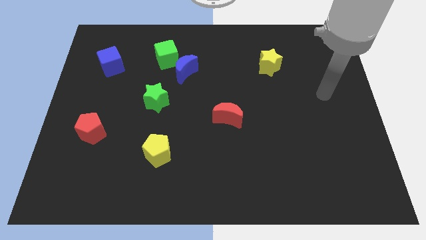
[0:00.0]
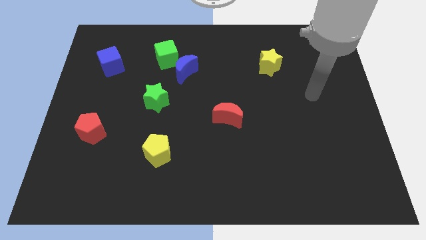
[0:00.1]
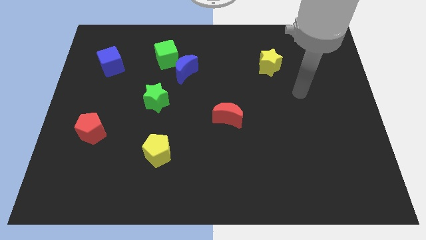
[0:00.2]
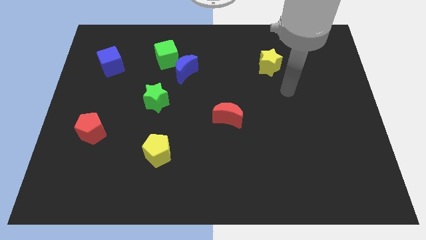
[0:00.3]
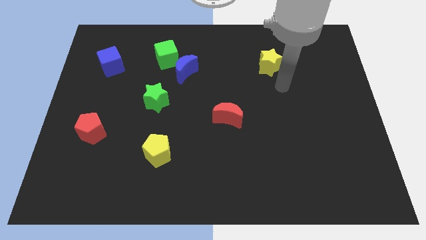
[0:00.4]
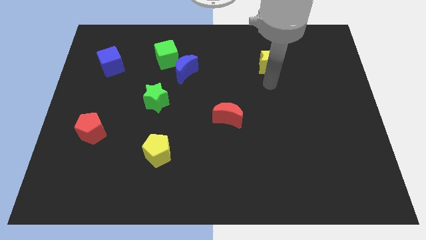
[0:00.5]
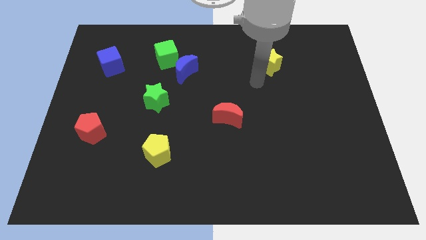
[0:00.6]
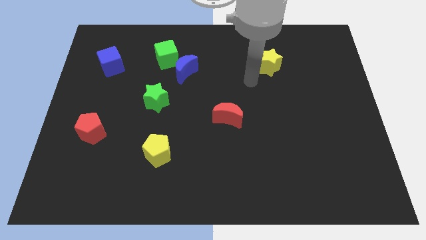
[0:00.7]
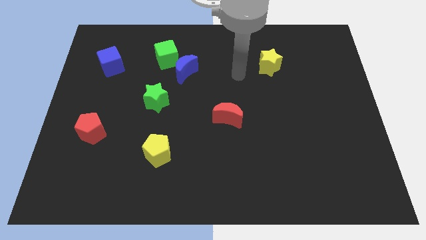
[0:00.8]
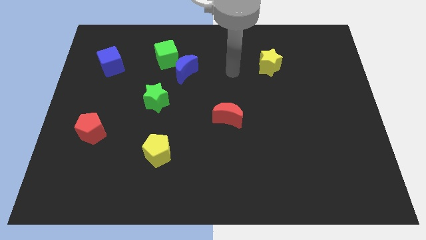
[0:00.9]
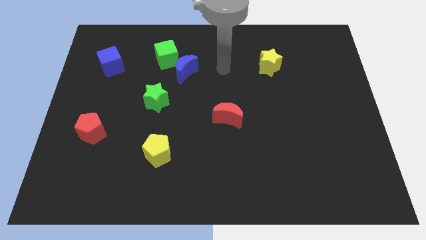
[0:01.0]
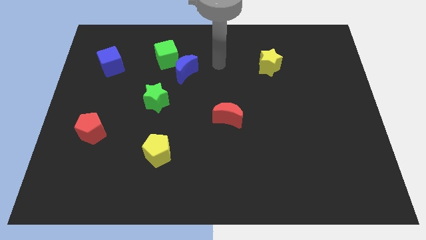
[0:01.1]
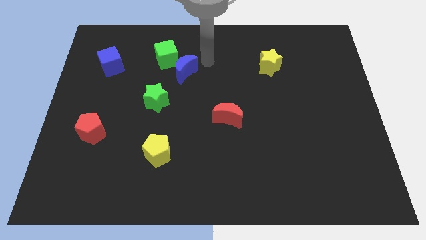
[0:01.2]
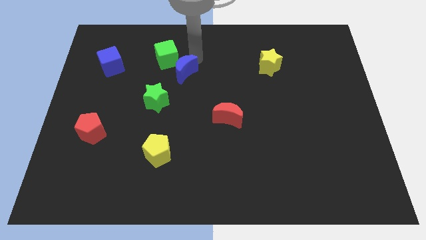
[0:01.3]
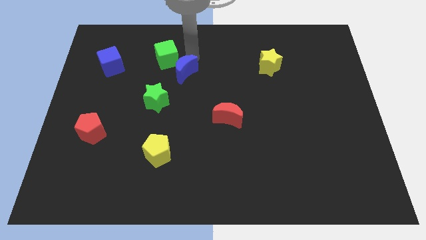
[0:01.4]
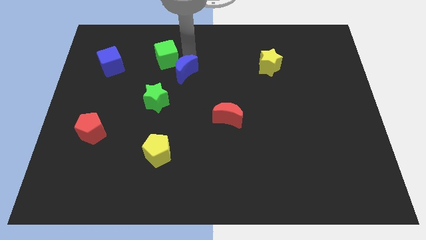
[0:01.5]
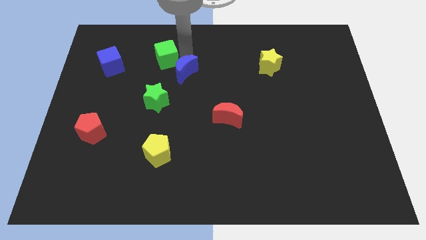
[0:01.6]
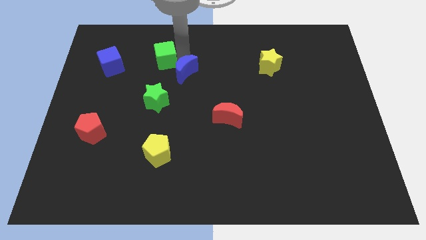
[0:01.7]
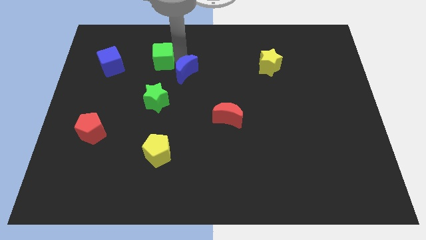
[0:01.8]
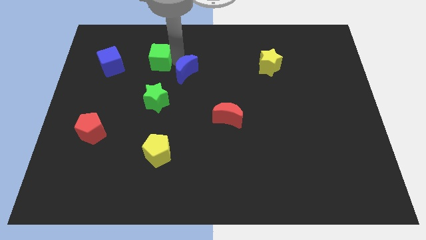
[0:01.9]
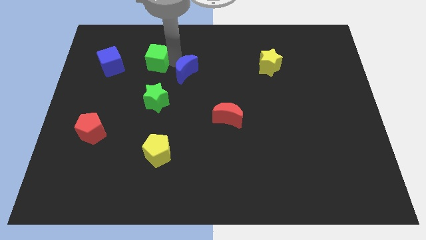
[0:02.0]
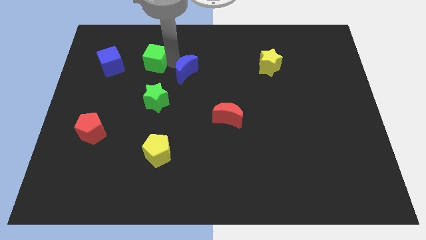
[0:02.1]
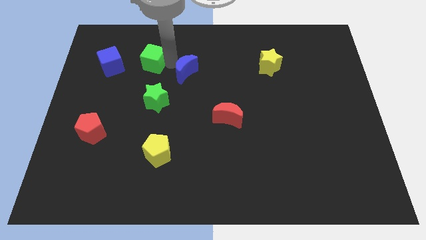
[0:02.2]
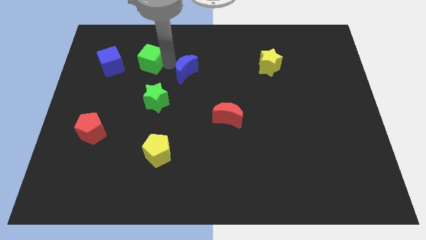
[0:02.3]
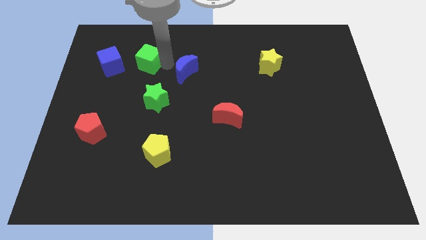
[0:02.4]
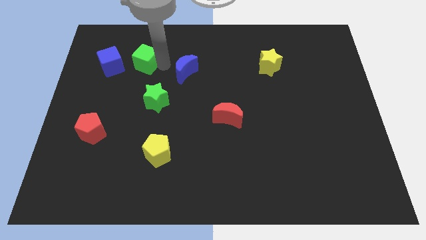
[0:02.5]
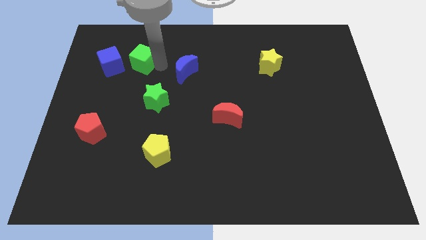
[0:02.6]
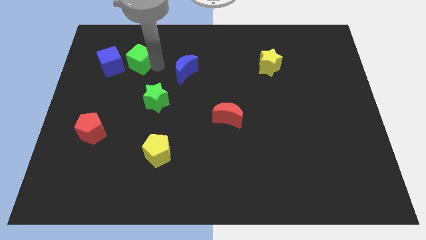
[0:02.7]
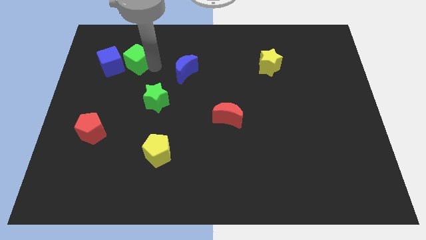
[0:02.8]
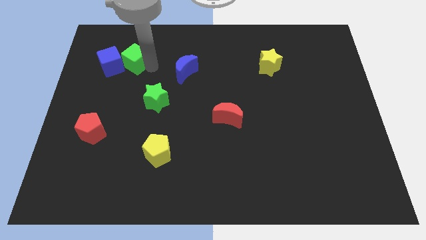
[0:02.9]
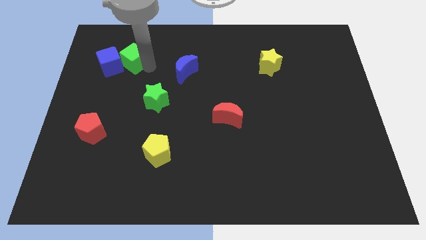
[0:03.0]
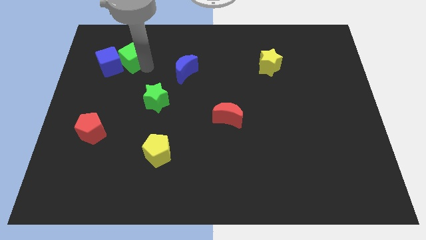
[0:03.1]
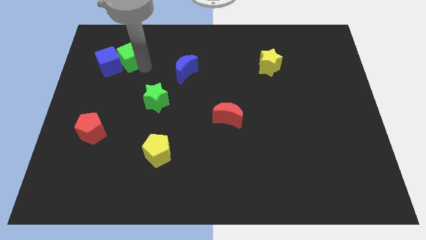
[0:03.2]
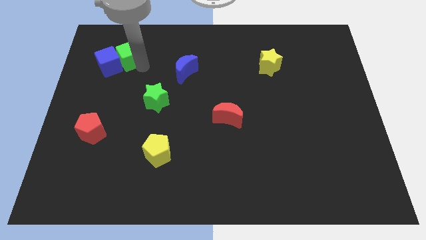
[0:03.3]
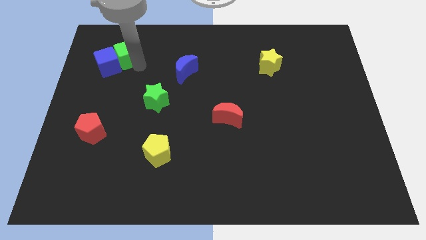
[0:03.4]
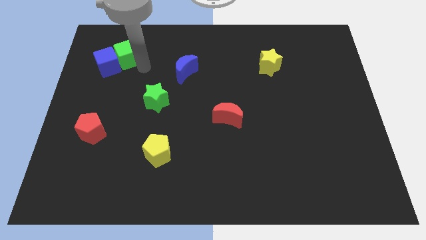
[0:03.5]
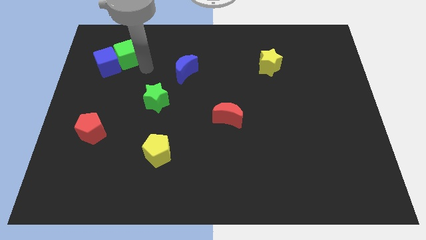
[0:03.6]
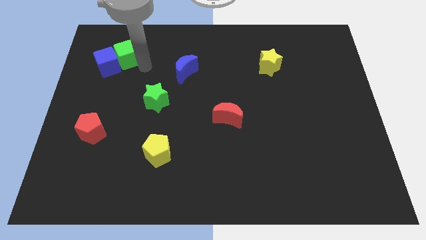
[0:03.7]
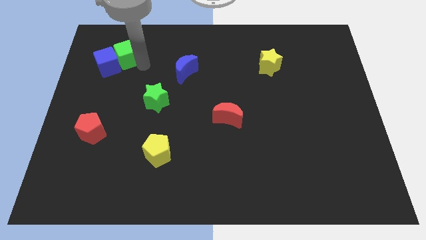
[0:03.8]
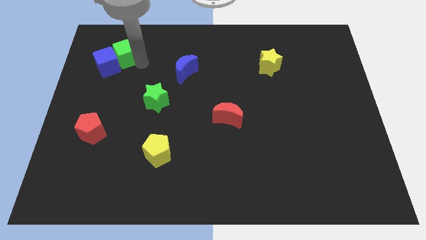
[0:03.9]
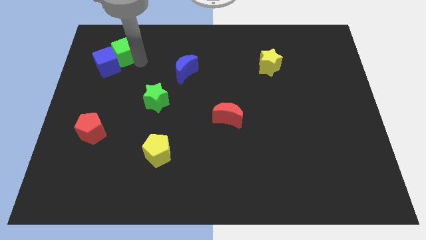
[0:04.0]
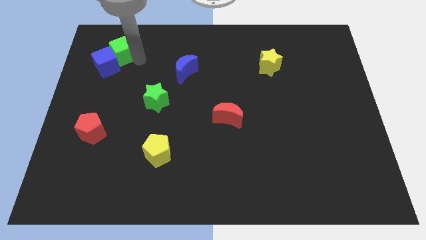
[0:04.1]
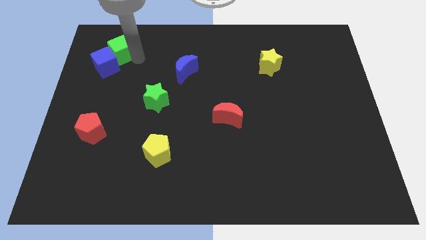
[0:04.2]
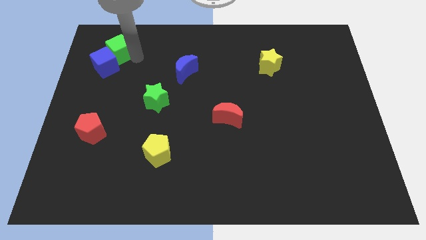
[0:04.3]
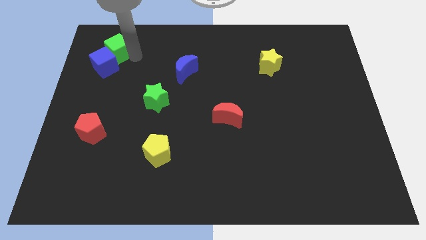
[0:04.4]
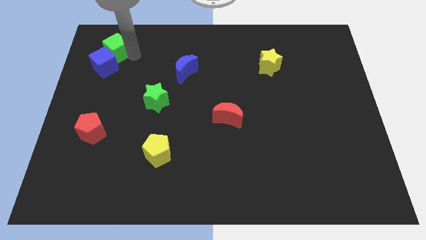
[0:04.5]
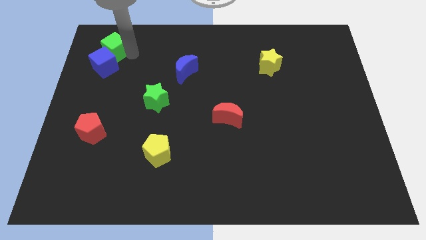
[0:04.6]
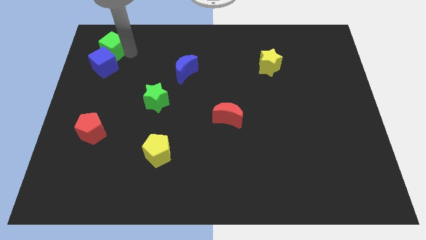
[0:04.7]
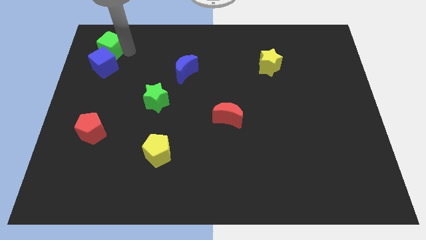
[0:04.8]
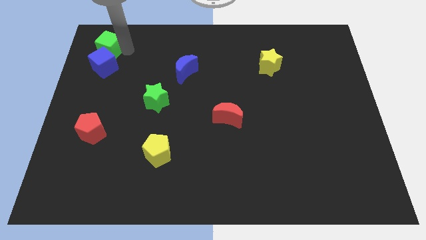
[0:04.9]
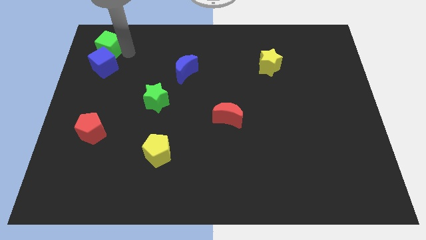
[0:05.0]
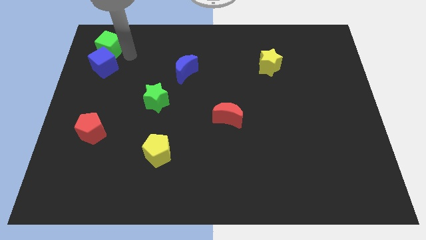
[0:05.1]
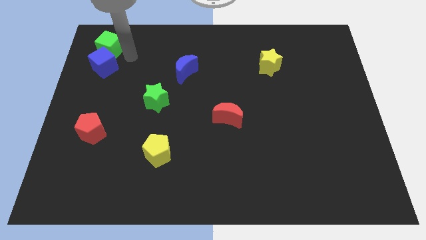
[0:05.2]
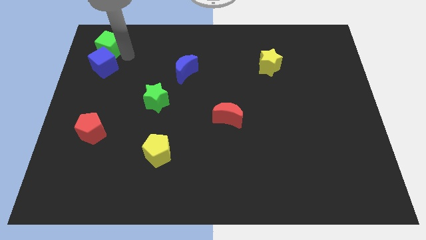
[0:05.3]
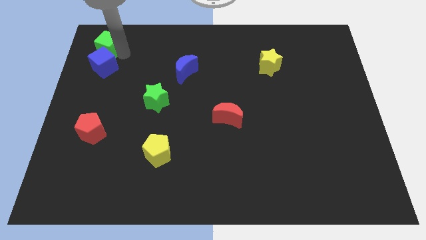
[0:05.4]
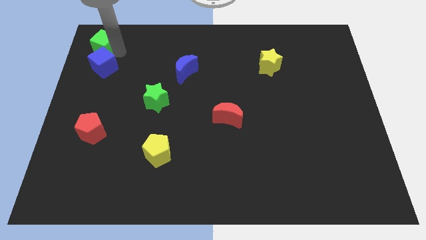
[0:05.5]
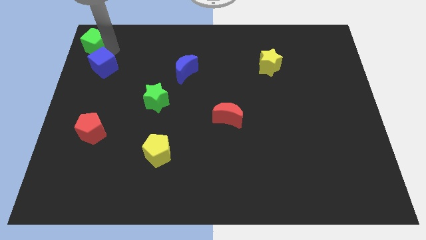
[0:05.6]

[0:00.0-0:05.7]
slide the green cube to the upper left corner

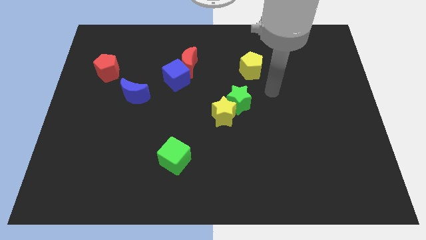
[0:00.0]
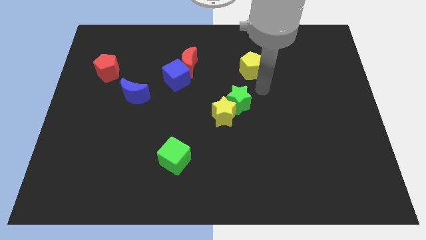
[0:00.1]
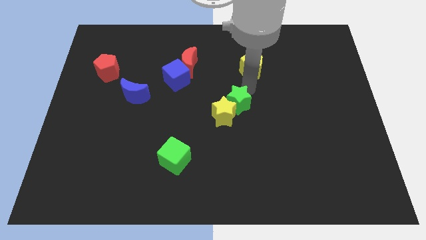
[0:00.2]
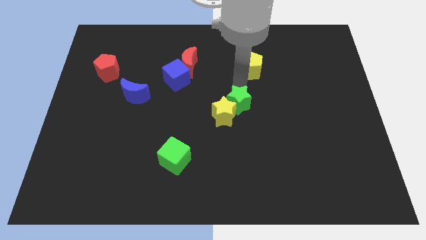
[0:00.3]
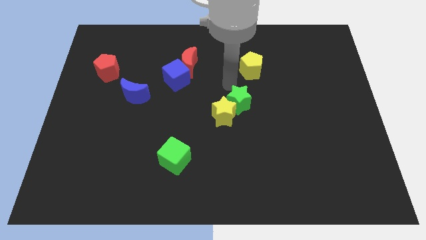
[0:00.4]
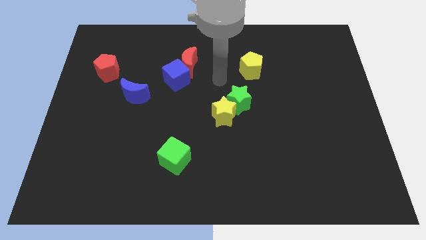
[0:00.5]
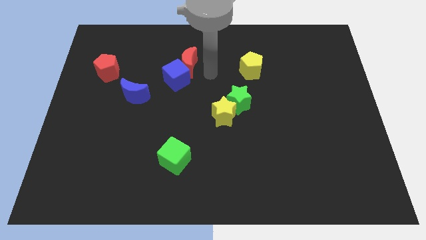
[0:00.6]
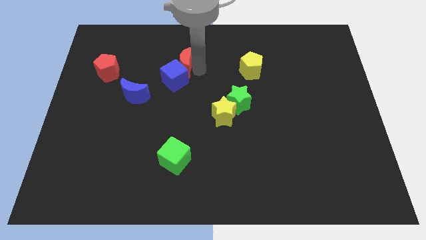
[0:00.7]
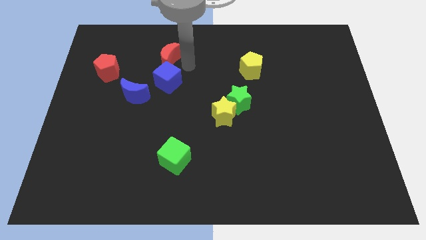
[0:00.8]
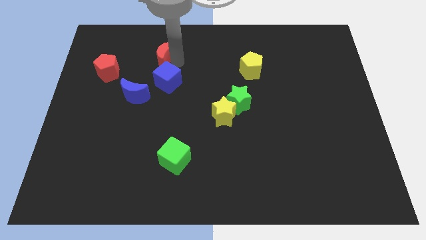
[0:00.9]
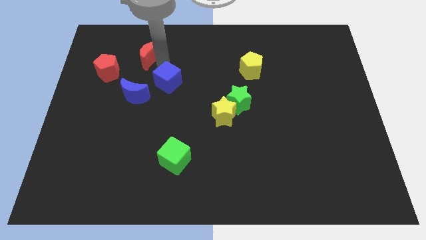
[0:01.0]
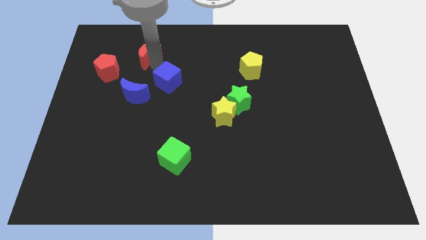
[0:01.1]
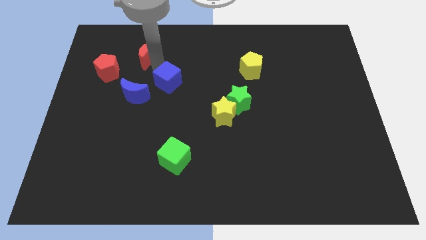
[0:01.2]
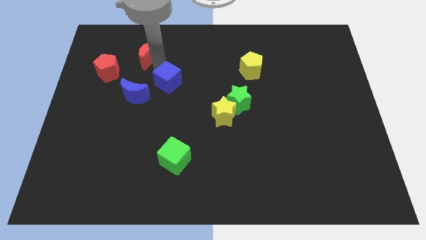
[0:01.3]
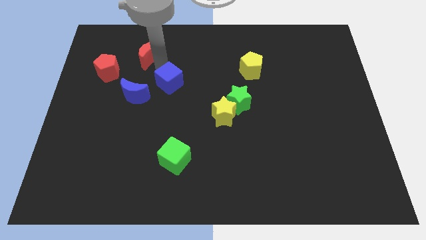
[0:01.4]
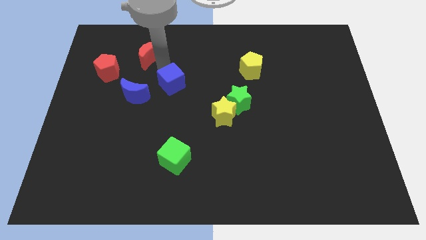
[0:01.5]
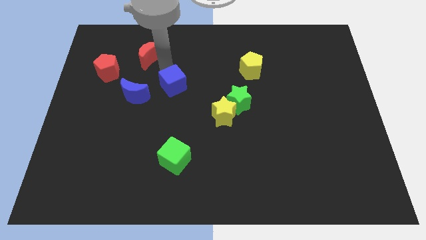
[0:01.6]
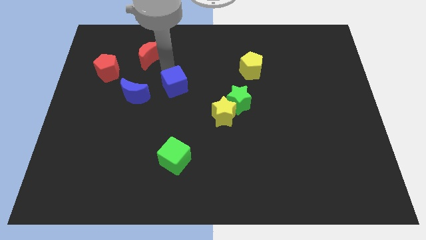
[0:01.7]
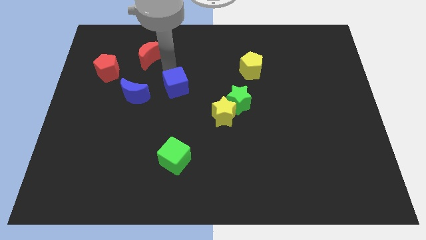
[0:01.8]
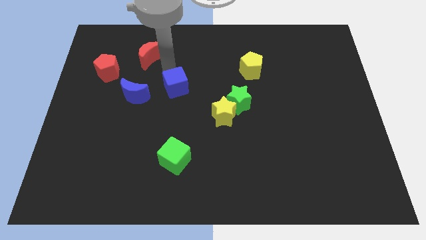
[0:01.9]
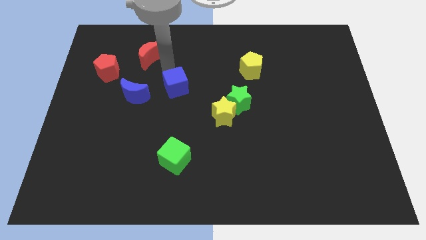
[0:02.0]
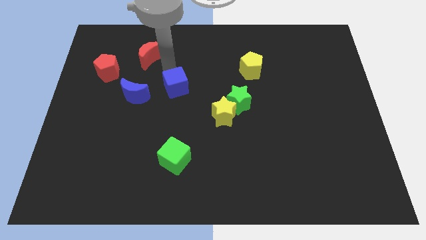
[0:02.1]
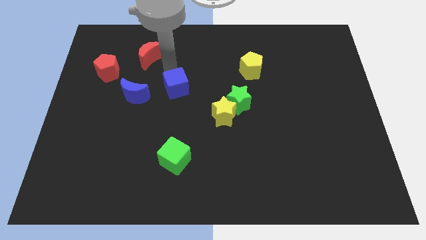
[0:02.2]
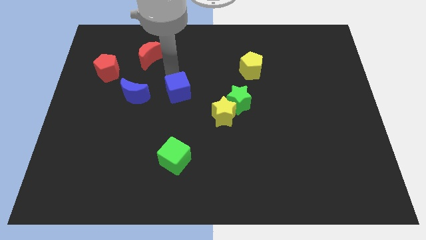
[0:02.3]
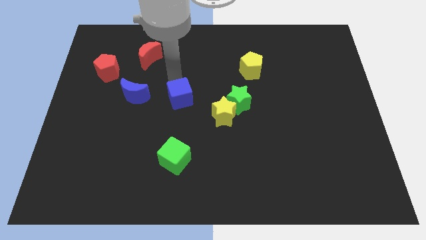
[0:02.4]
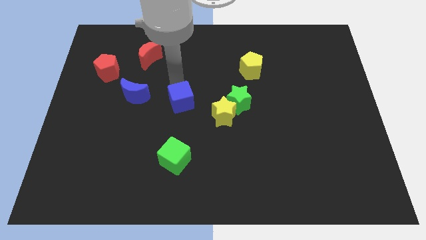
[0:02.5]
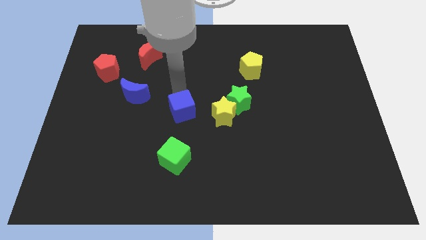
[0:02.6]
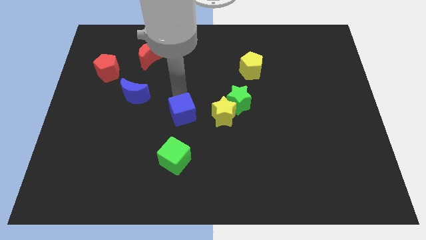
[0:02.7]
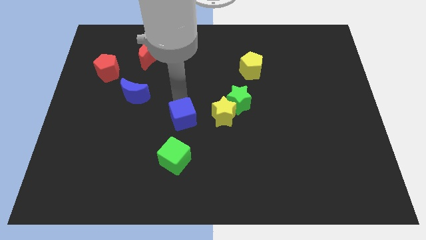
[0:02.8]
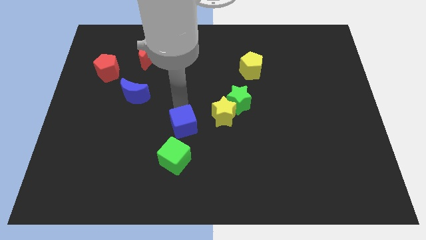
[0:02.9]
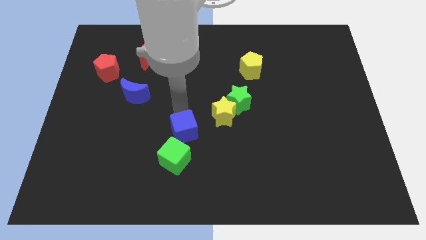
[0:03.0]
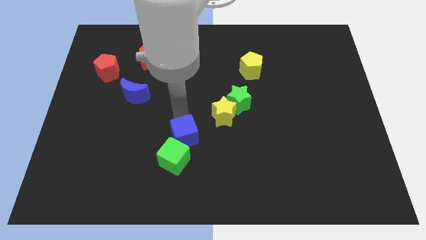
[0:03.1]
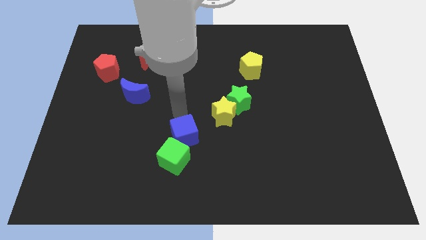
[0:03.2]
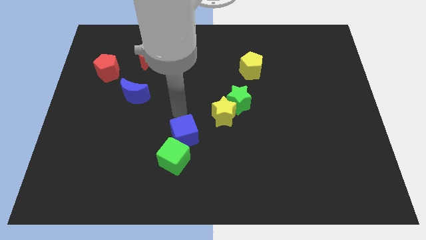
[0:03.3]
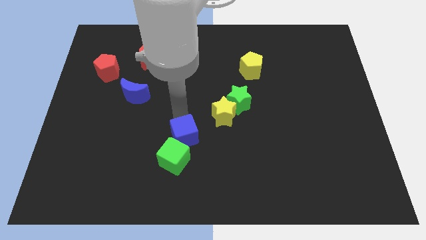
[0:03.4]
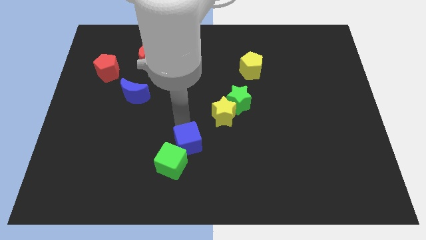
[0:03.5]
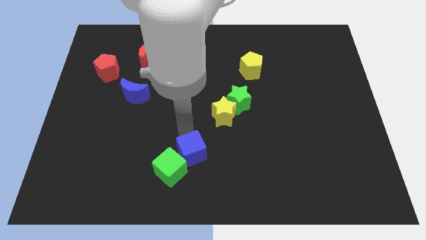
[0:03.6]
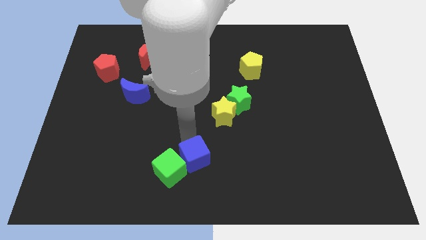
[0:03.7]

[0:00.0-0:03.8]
push the blue cube to the bottom side
